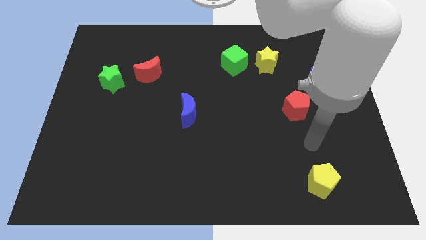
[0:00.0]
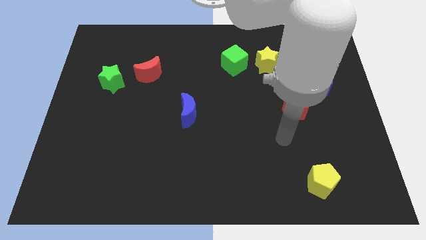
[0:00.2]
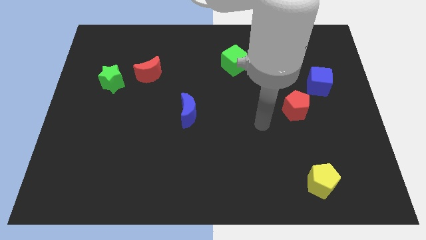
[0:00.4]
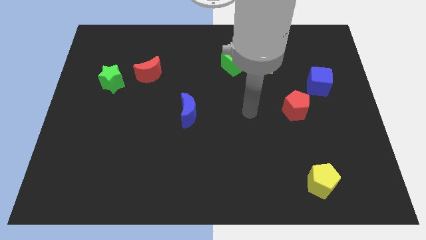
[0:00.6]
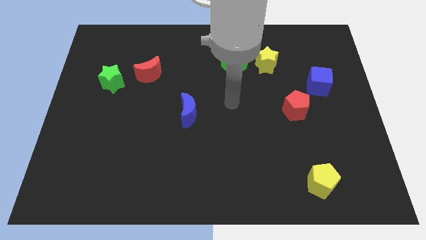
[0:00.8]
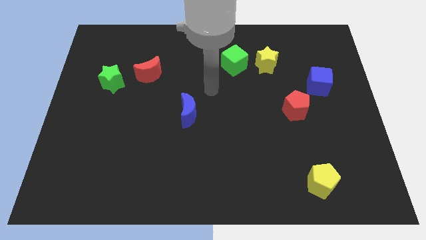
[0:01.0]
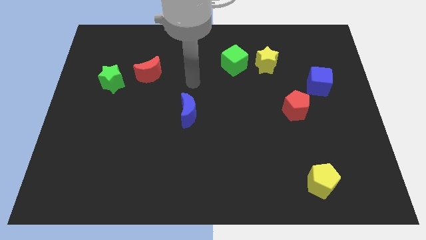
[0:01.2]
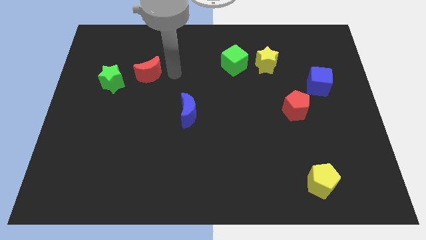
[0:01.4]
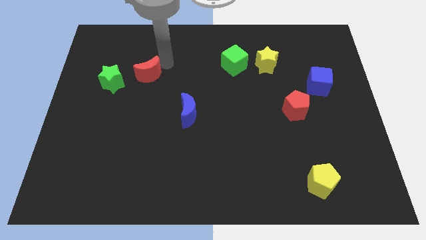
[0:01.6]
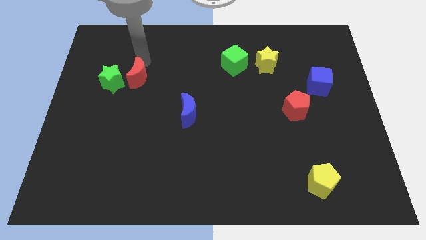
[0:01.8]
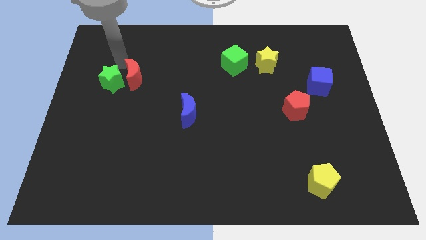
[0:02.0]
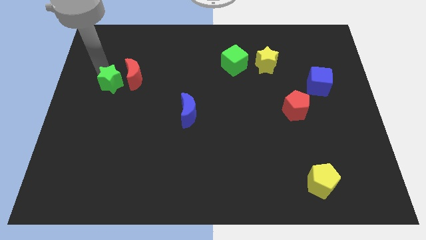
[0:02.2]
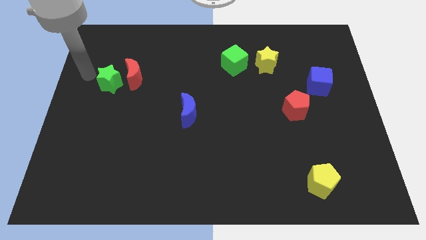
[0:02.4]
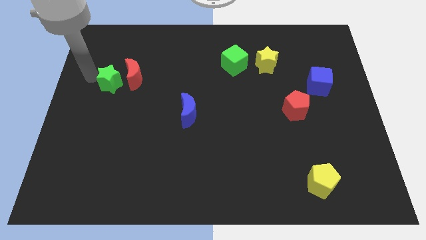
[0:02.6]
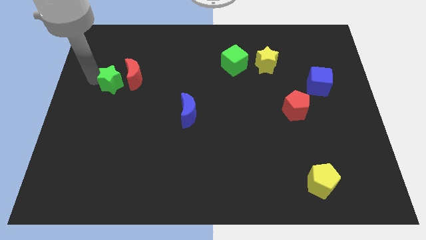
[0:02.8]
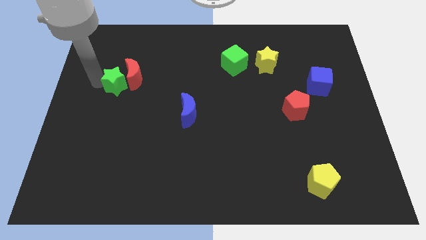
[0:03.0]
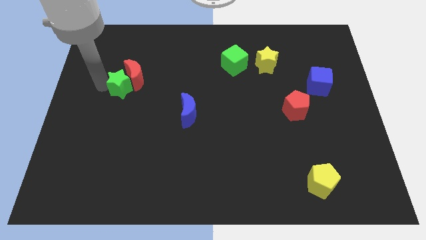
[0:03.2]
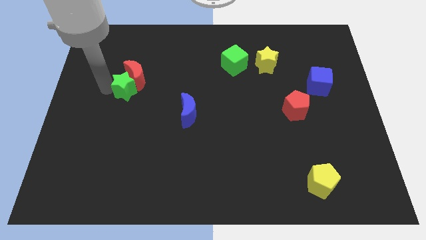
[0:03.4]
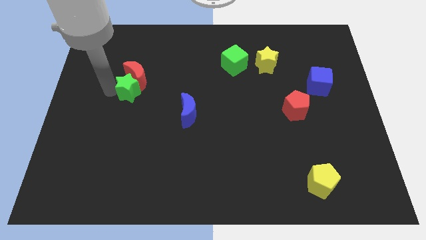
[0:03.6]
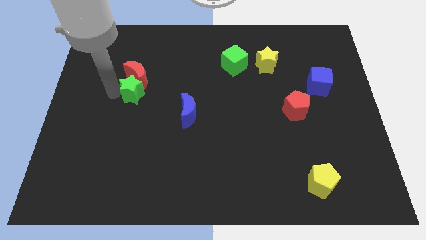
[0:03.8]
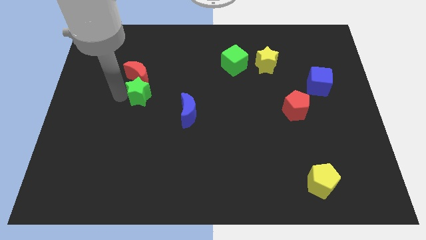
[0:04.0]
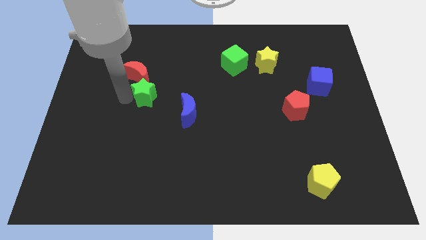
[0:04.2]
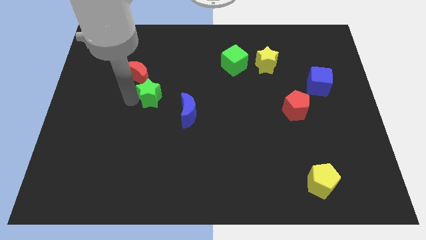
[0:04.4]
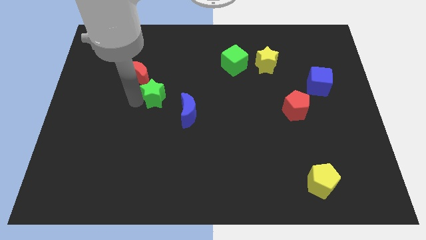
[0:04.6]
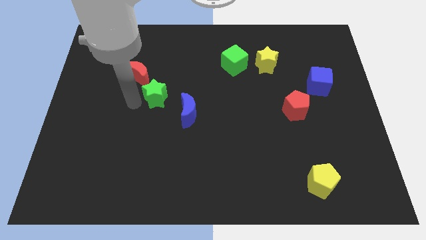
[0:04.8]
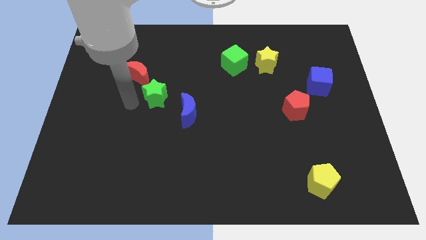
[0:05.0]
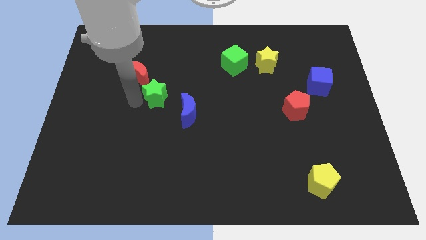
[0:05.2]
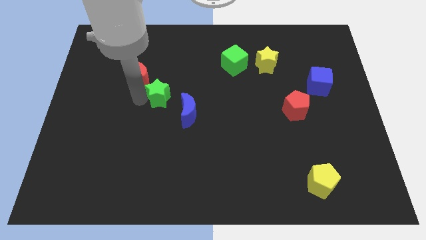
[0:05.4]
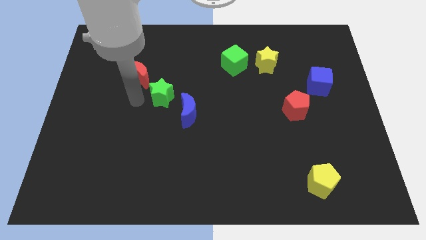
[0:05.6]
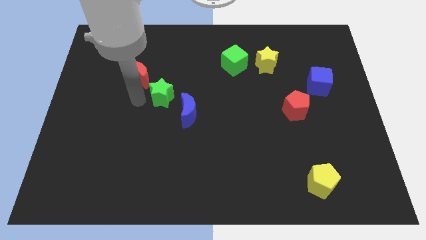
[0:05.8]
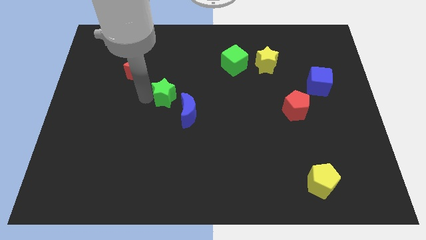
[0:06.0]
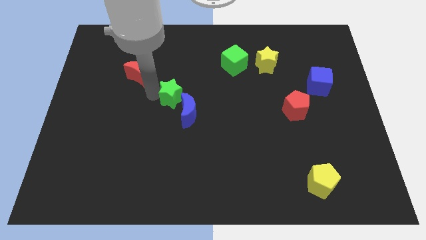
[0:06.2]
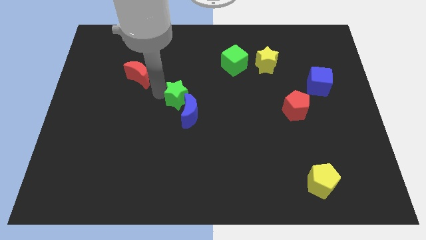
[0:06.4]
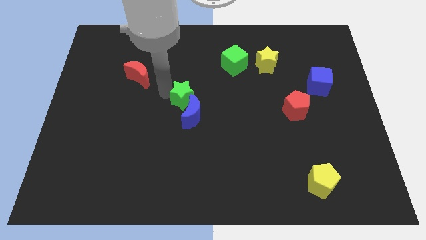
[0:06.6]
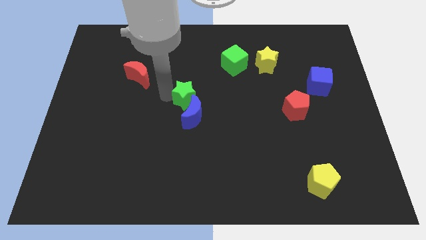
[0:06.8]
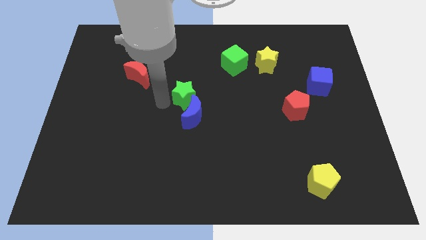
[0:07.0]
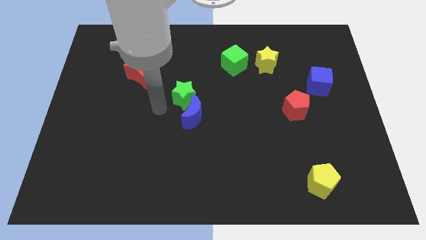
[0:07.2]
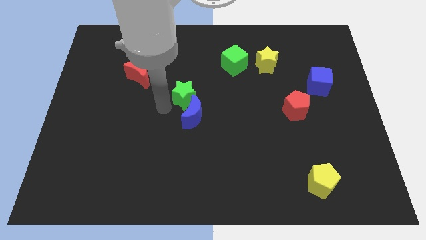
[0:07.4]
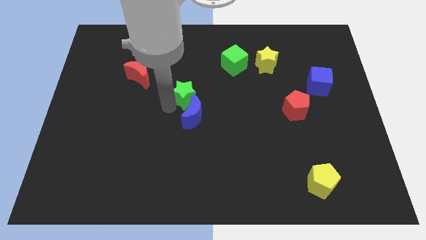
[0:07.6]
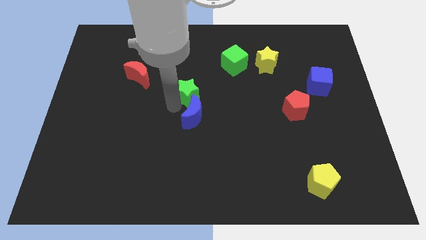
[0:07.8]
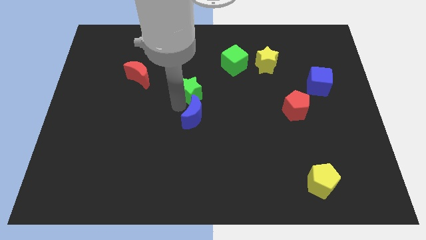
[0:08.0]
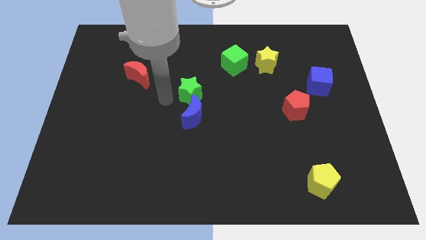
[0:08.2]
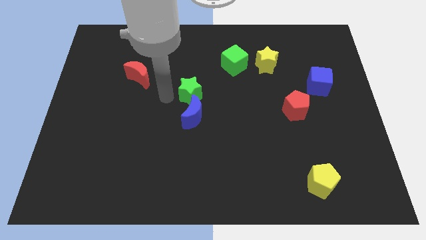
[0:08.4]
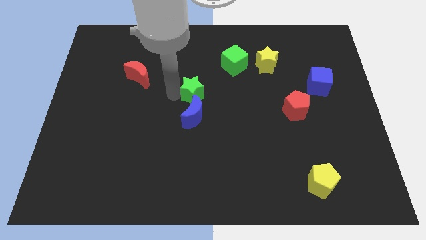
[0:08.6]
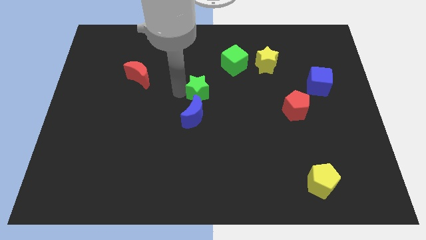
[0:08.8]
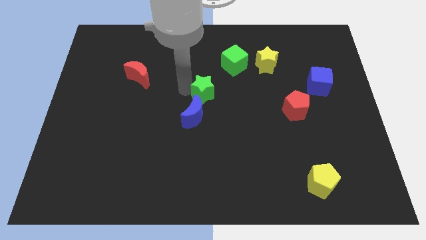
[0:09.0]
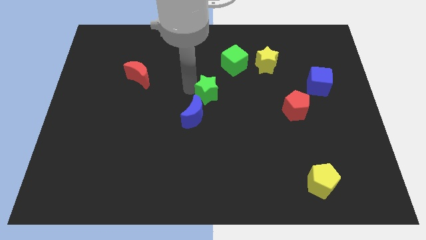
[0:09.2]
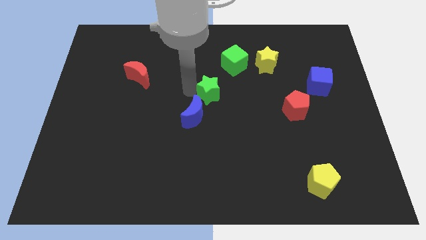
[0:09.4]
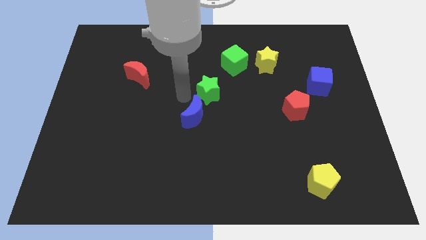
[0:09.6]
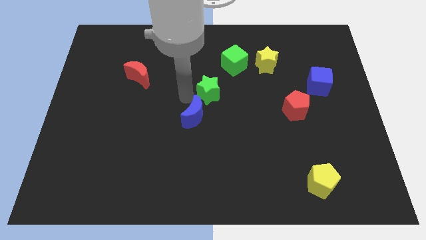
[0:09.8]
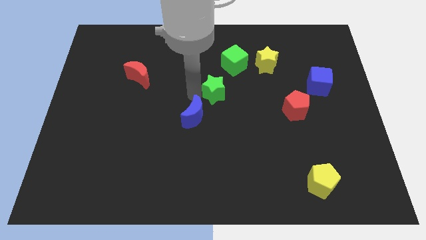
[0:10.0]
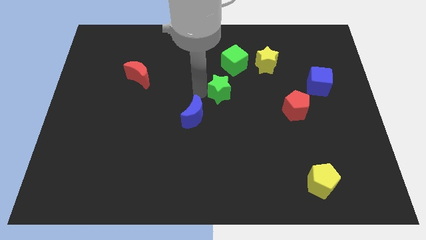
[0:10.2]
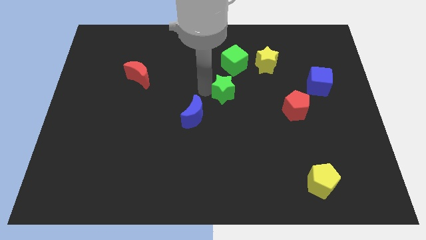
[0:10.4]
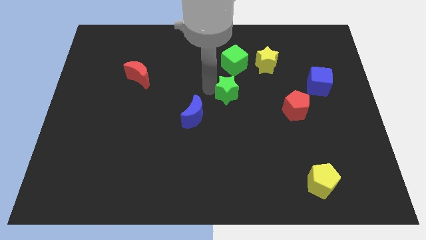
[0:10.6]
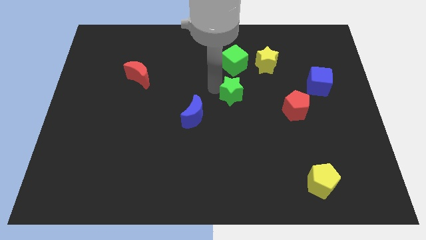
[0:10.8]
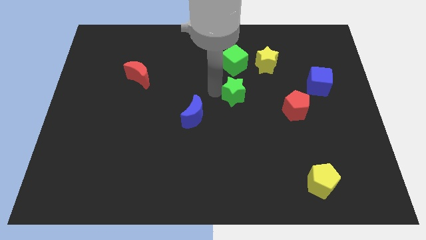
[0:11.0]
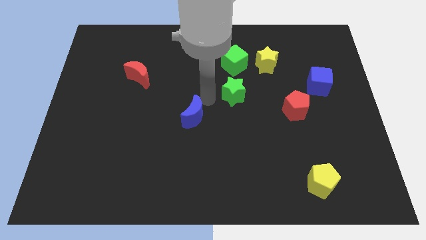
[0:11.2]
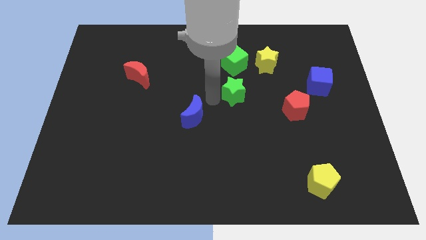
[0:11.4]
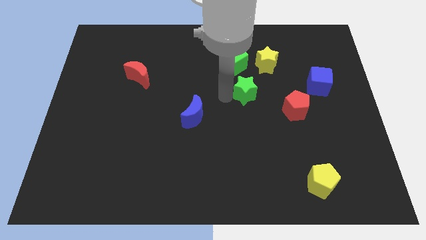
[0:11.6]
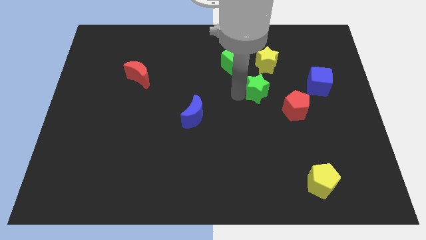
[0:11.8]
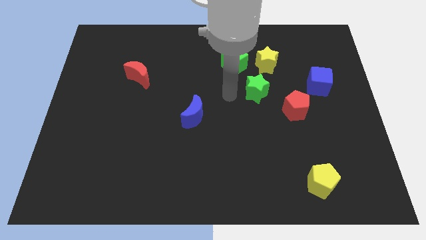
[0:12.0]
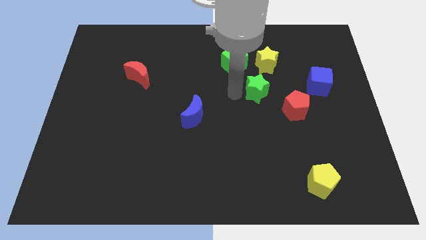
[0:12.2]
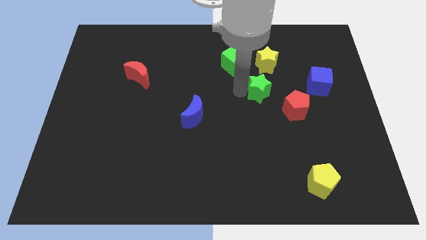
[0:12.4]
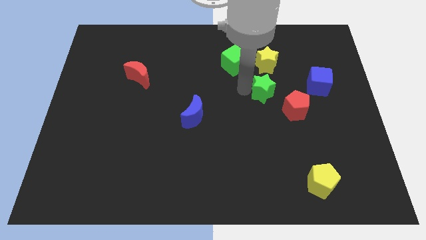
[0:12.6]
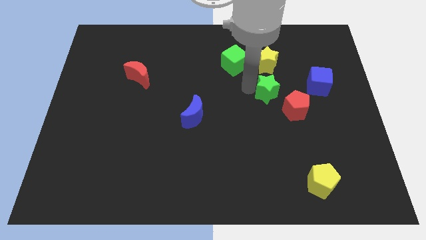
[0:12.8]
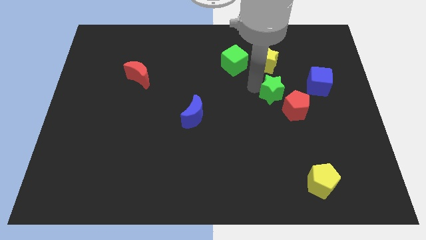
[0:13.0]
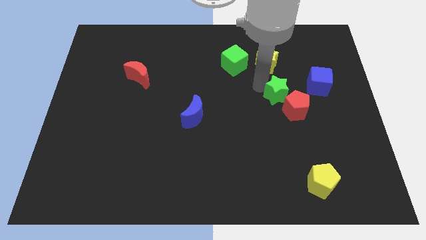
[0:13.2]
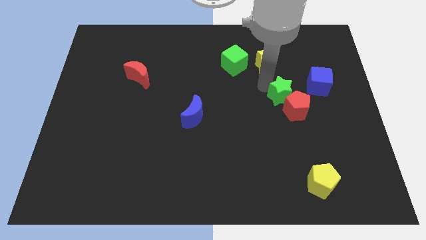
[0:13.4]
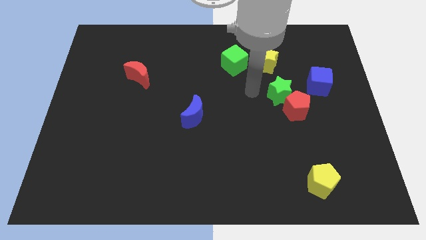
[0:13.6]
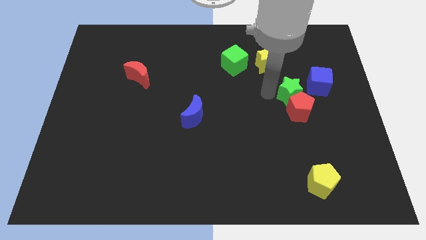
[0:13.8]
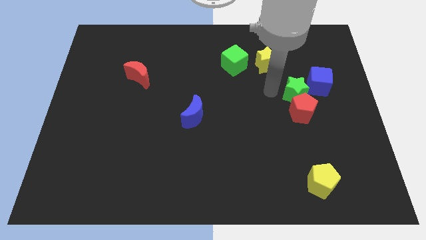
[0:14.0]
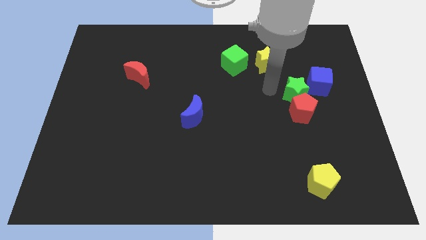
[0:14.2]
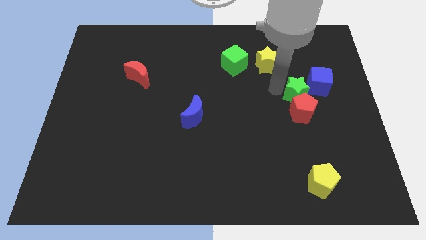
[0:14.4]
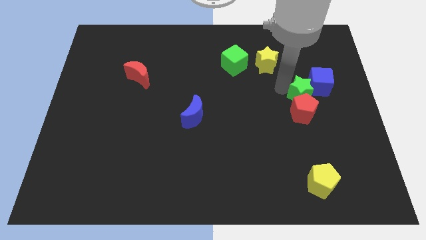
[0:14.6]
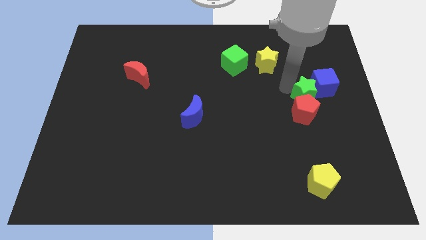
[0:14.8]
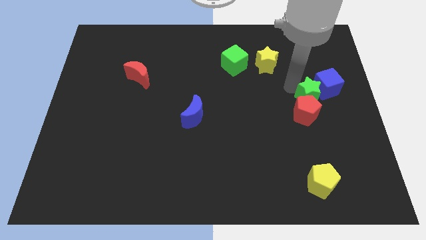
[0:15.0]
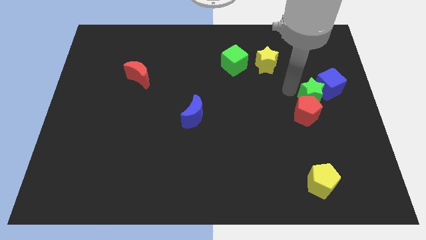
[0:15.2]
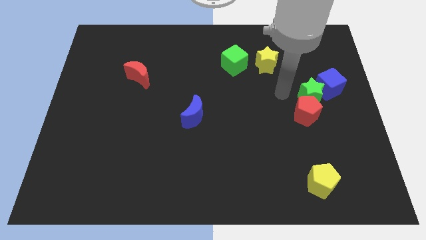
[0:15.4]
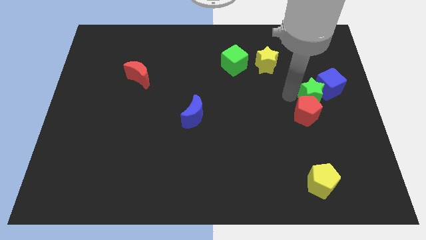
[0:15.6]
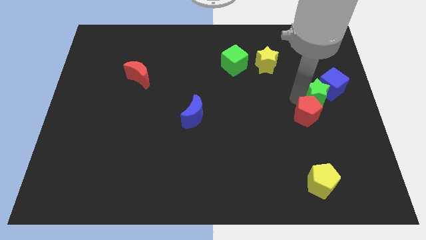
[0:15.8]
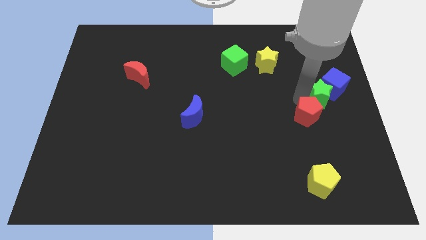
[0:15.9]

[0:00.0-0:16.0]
push the green star to the center right
